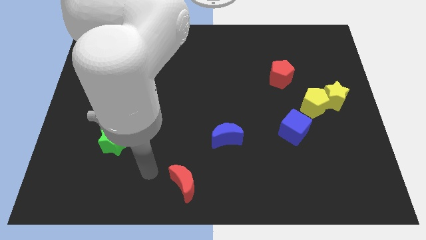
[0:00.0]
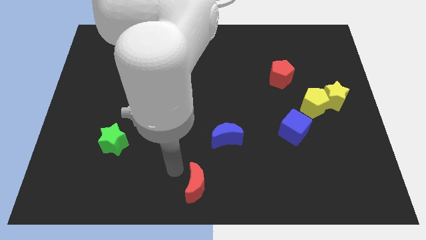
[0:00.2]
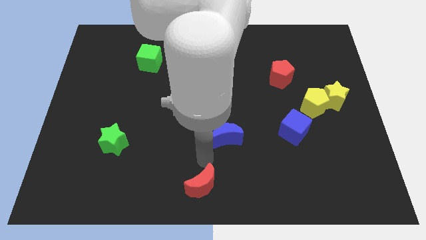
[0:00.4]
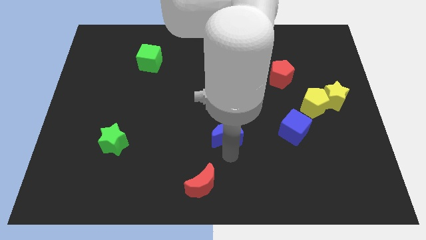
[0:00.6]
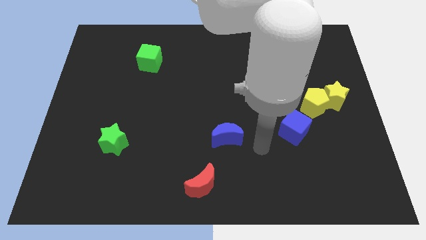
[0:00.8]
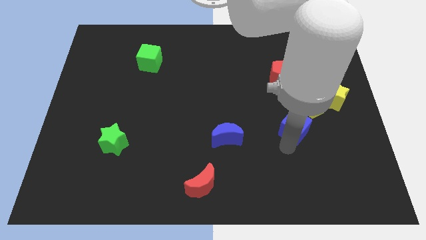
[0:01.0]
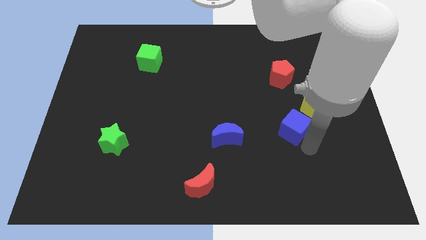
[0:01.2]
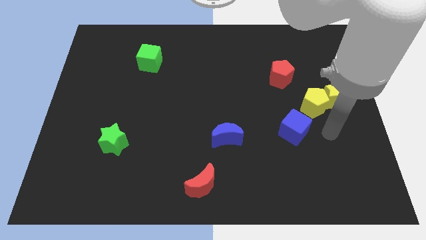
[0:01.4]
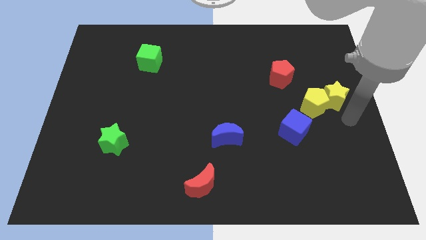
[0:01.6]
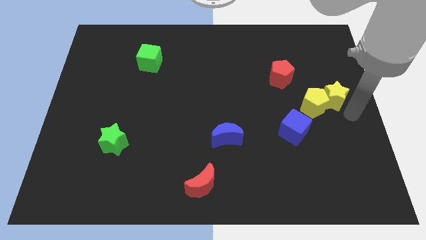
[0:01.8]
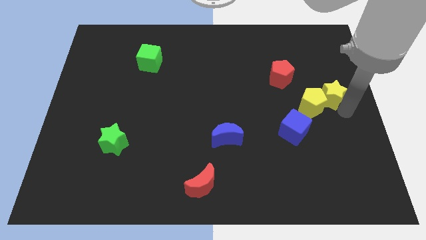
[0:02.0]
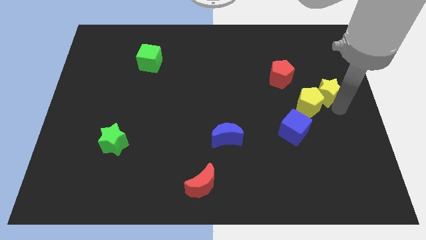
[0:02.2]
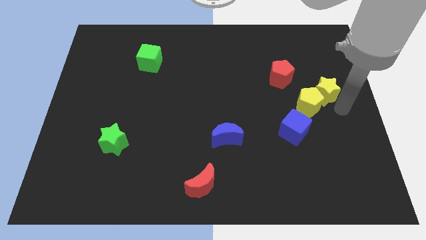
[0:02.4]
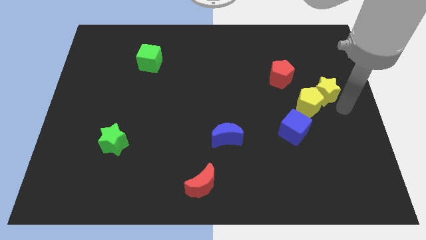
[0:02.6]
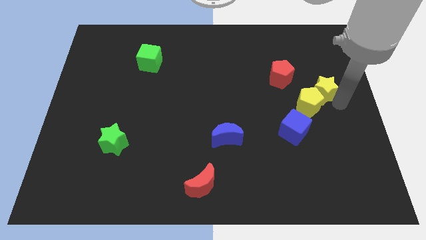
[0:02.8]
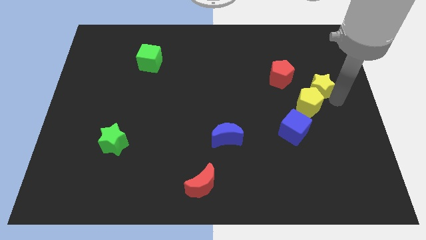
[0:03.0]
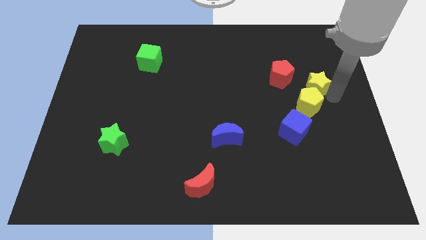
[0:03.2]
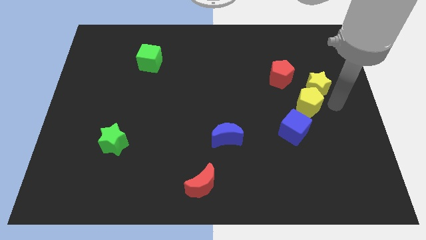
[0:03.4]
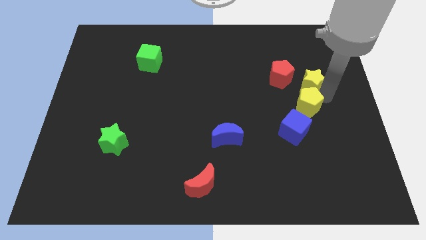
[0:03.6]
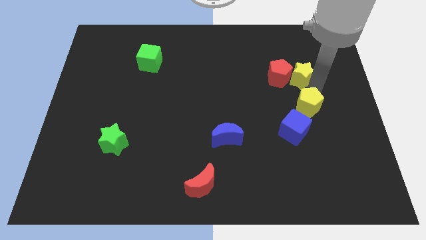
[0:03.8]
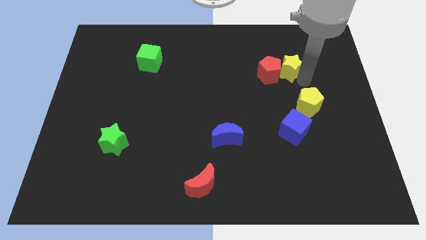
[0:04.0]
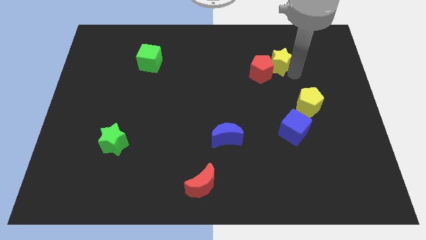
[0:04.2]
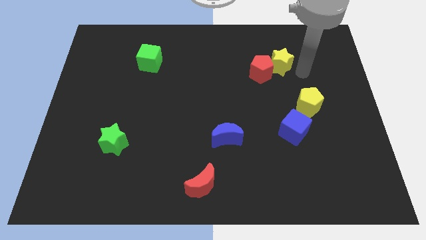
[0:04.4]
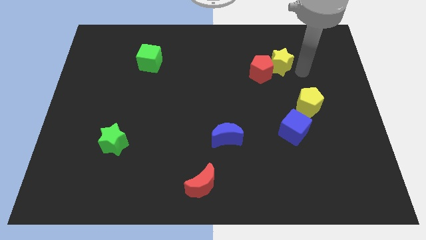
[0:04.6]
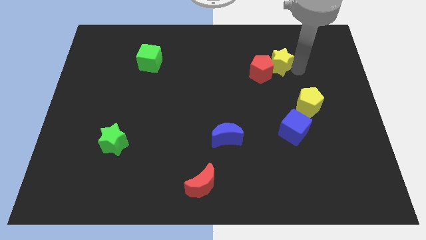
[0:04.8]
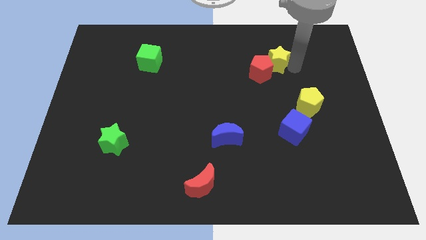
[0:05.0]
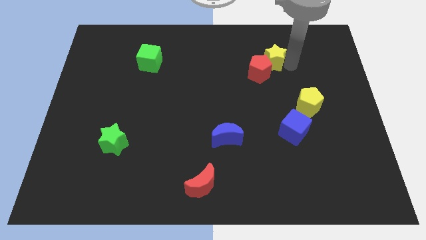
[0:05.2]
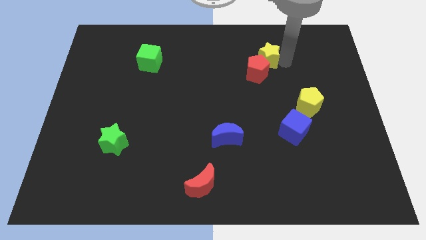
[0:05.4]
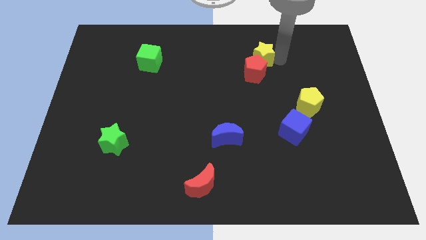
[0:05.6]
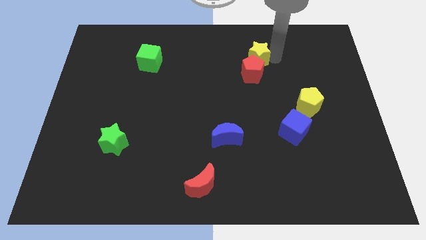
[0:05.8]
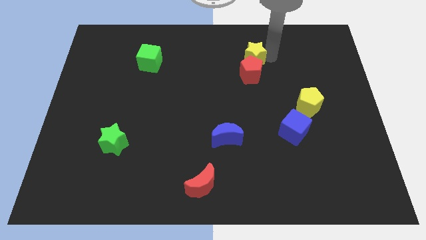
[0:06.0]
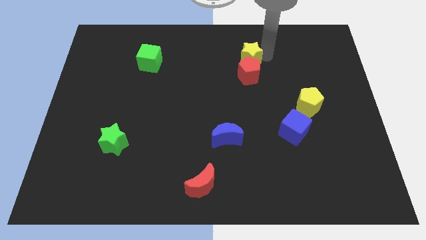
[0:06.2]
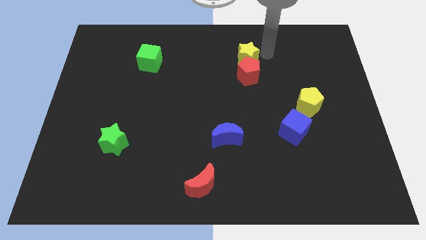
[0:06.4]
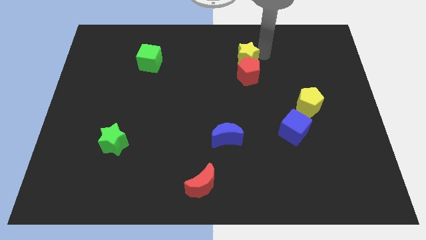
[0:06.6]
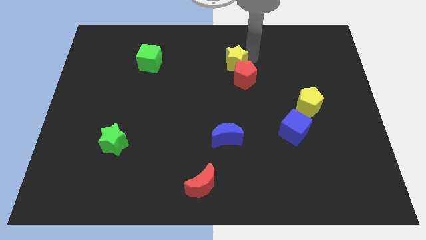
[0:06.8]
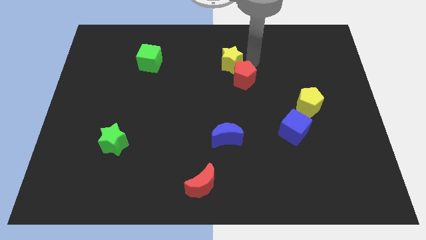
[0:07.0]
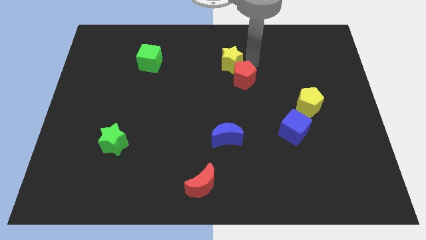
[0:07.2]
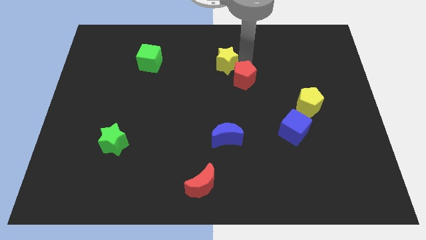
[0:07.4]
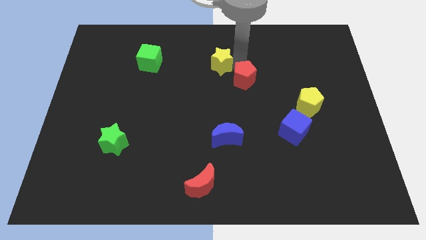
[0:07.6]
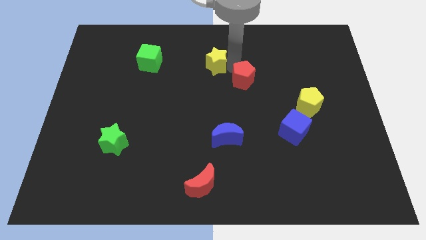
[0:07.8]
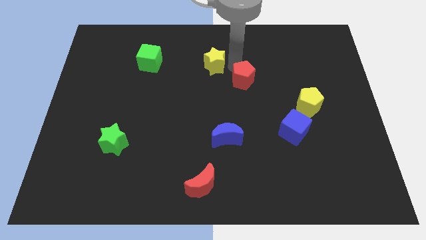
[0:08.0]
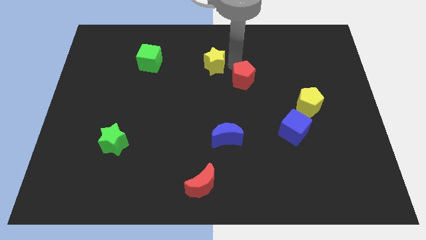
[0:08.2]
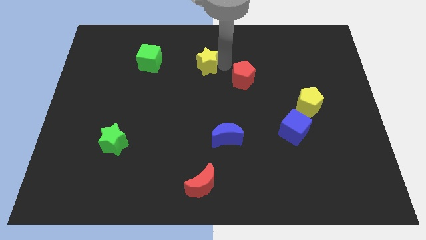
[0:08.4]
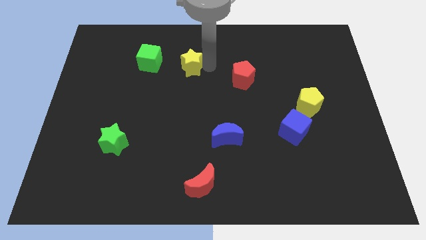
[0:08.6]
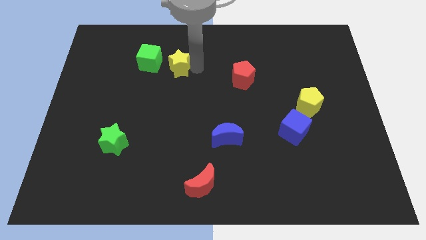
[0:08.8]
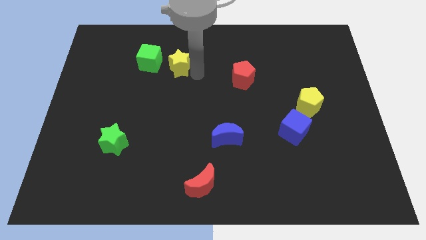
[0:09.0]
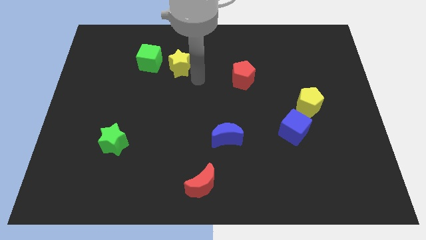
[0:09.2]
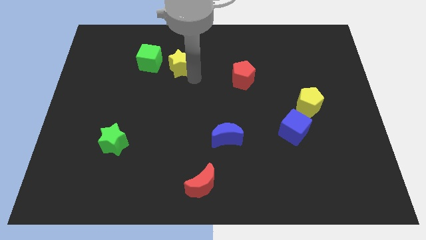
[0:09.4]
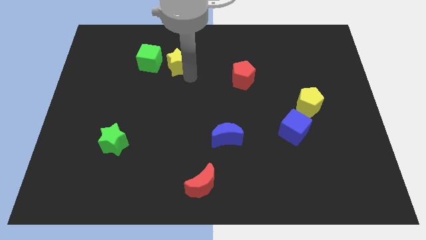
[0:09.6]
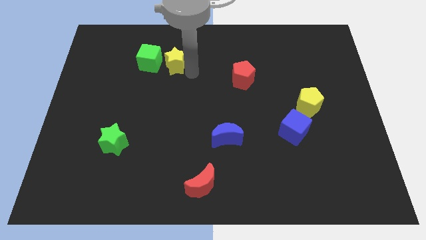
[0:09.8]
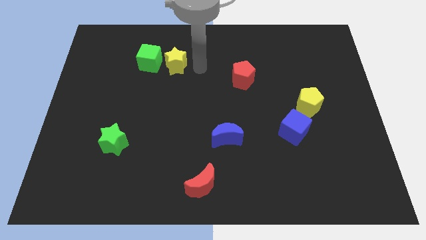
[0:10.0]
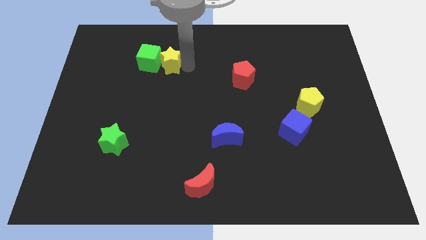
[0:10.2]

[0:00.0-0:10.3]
move the yellow star to the green cube

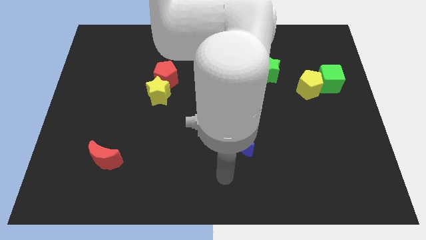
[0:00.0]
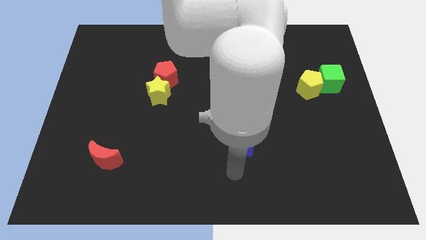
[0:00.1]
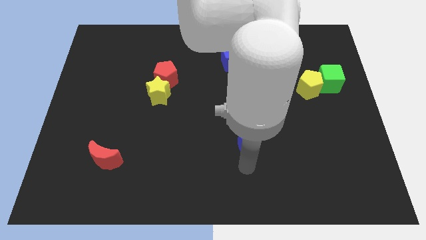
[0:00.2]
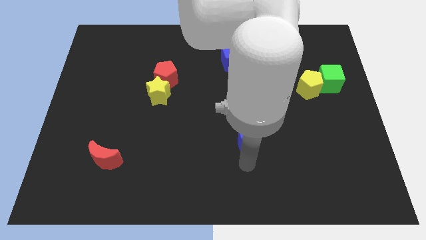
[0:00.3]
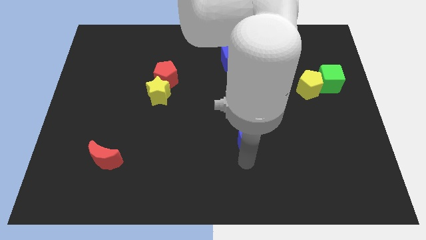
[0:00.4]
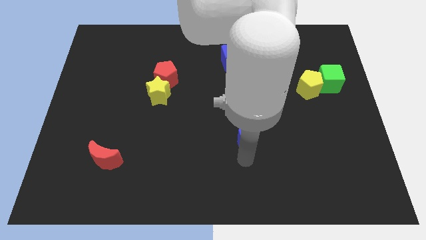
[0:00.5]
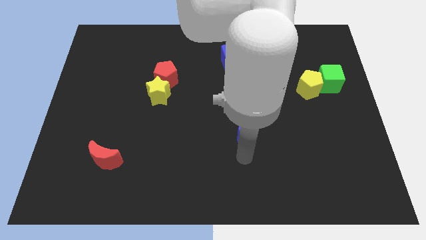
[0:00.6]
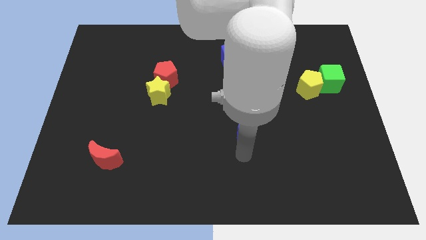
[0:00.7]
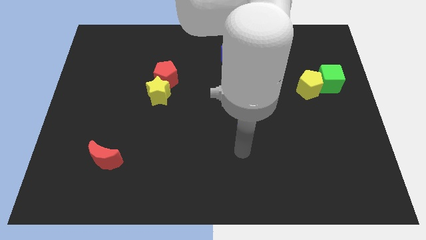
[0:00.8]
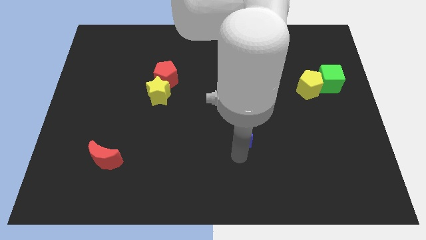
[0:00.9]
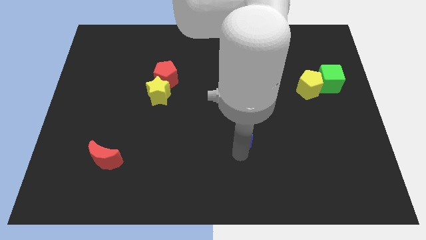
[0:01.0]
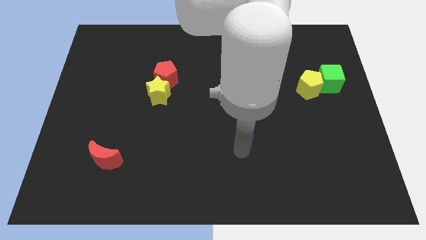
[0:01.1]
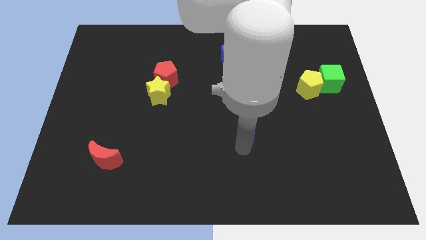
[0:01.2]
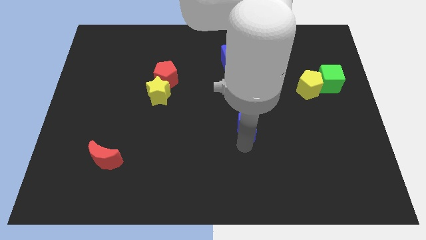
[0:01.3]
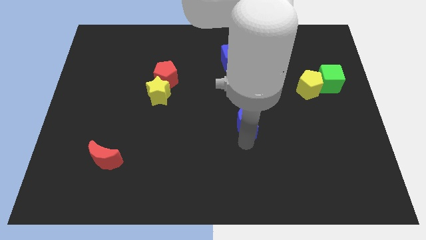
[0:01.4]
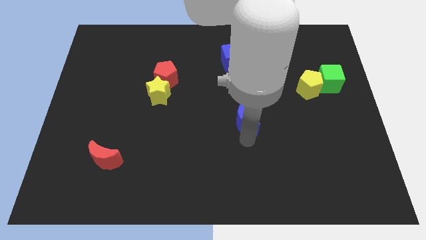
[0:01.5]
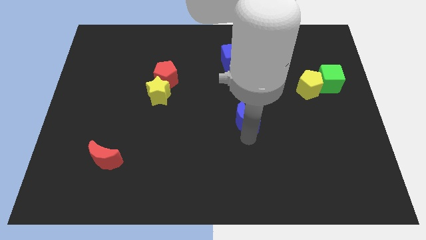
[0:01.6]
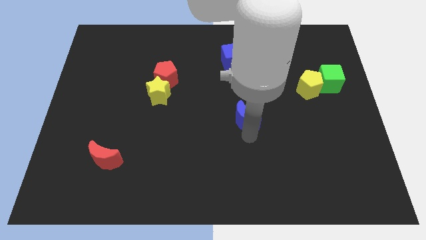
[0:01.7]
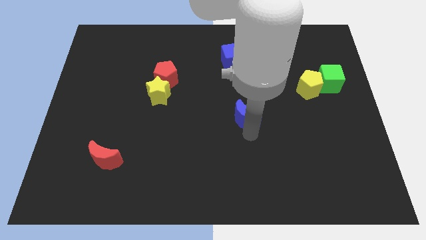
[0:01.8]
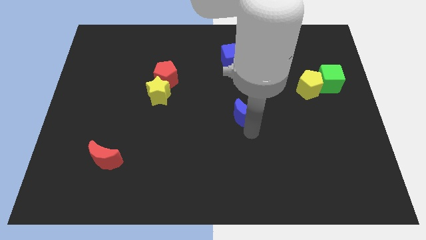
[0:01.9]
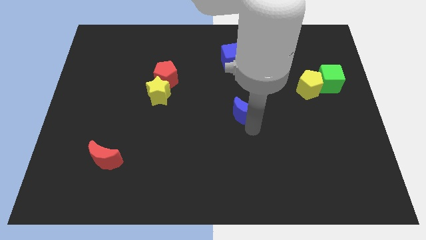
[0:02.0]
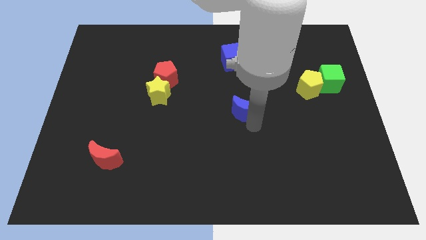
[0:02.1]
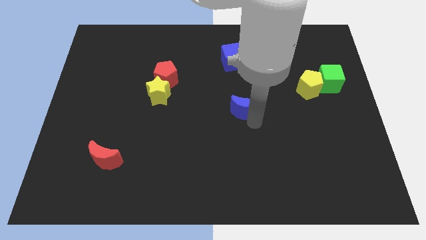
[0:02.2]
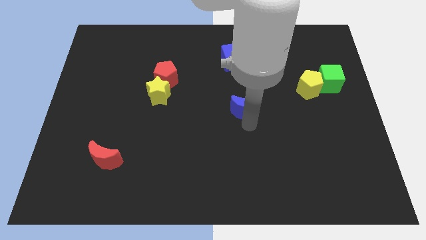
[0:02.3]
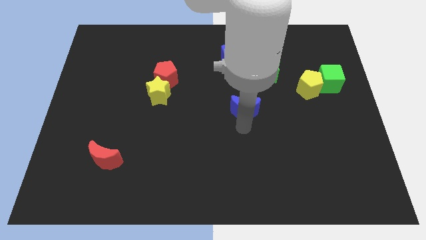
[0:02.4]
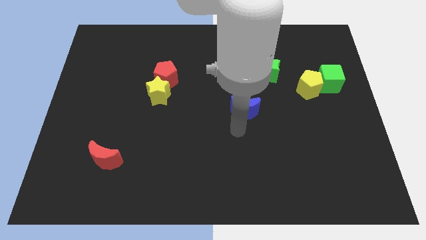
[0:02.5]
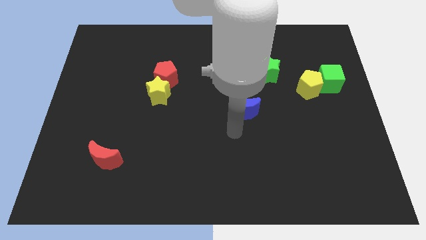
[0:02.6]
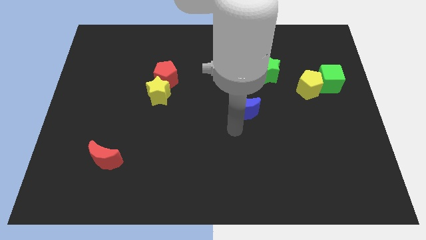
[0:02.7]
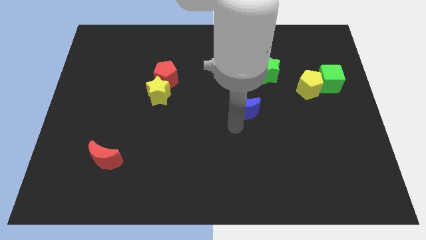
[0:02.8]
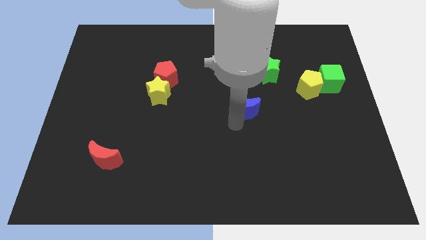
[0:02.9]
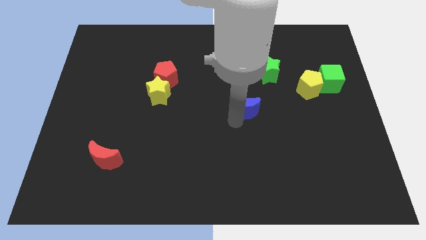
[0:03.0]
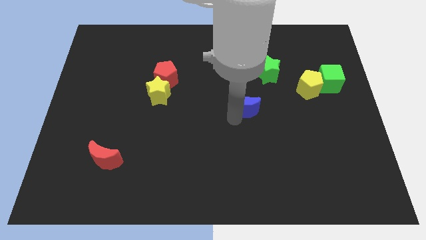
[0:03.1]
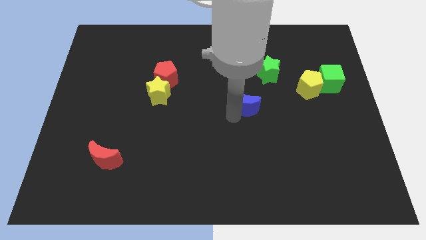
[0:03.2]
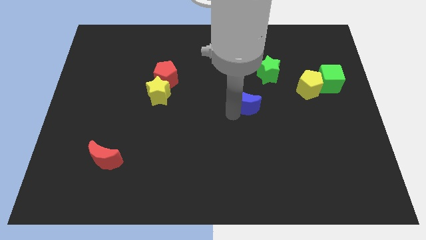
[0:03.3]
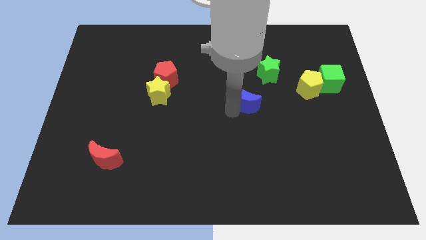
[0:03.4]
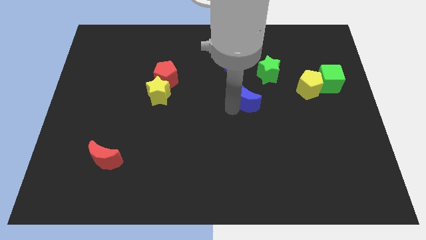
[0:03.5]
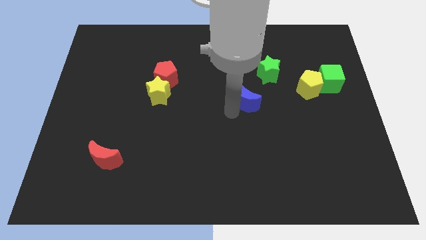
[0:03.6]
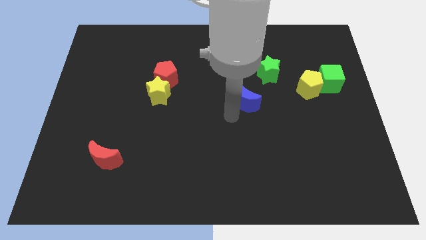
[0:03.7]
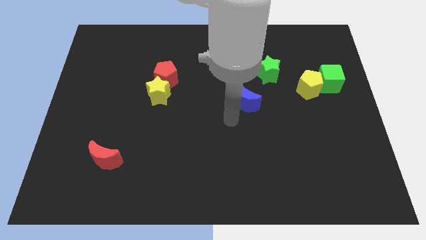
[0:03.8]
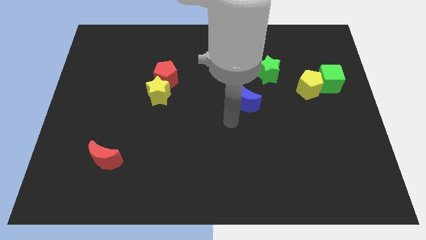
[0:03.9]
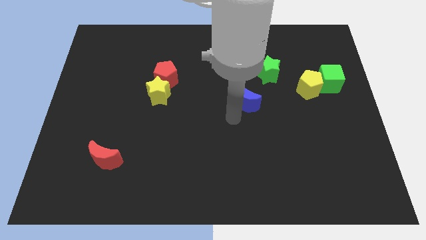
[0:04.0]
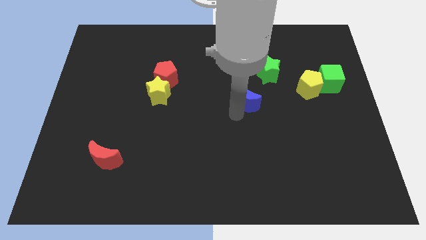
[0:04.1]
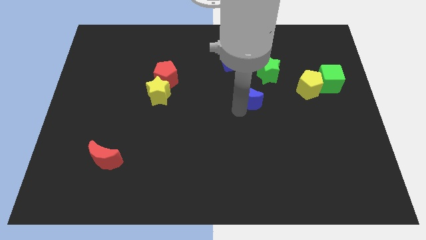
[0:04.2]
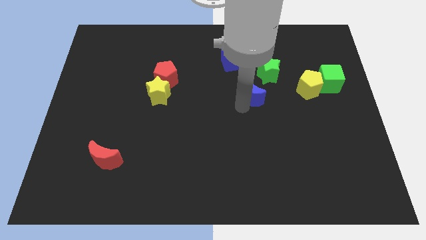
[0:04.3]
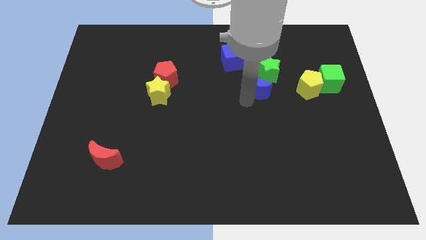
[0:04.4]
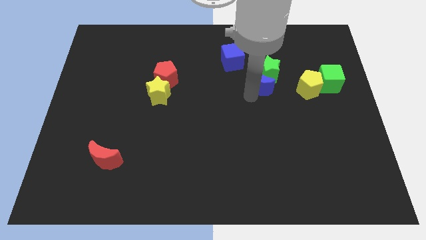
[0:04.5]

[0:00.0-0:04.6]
move the blue moon to the green star
